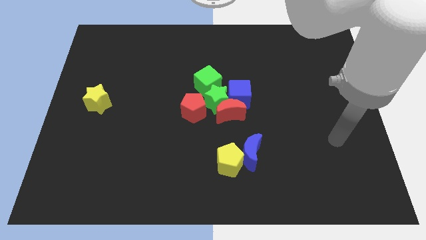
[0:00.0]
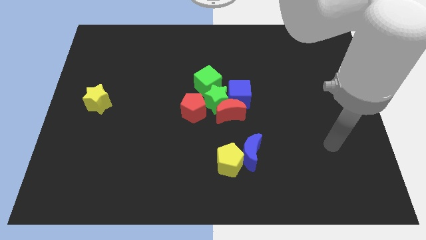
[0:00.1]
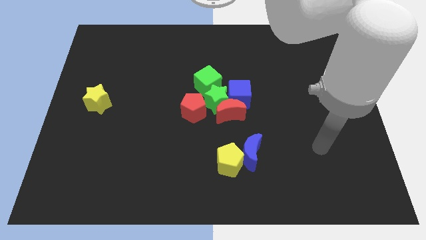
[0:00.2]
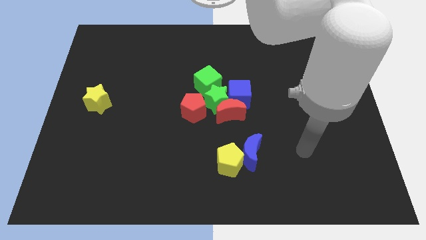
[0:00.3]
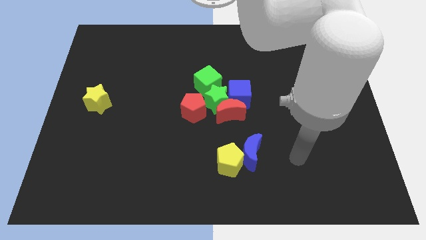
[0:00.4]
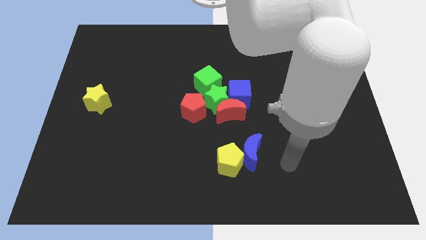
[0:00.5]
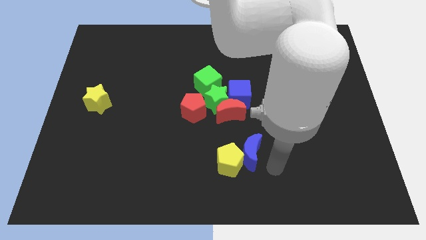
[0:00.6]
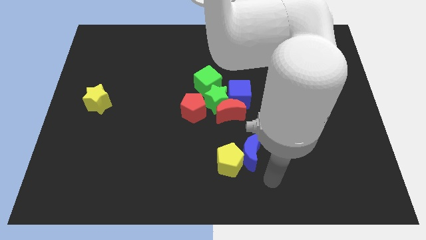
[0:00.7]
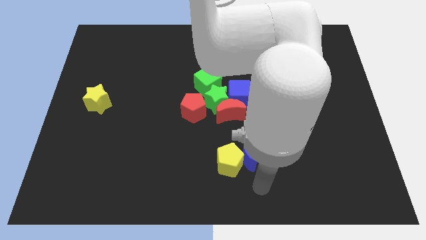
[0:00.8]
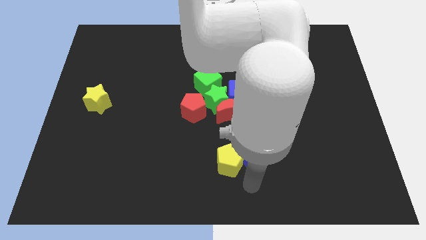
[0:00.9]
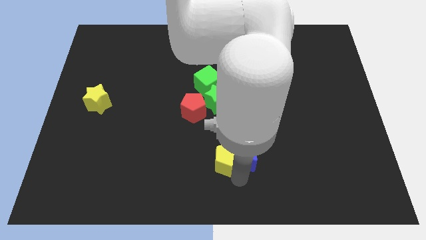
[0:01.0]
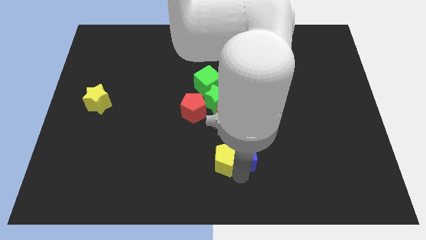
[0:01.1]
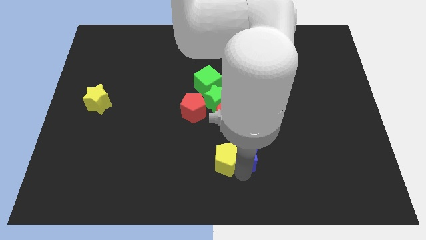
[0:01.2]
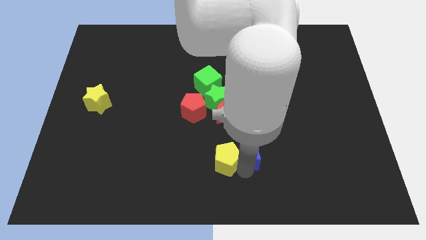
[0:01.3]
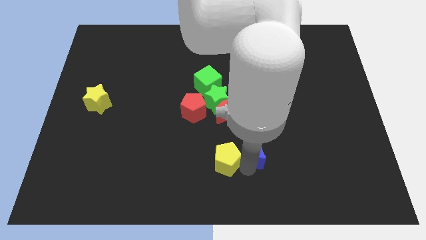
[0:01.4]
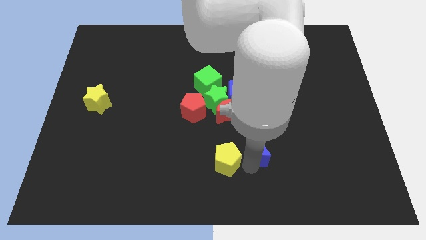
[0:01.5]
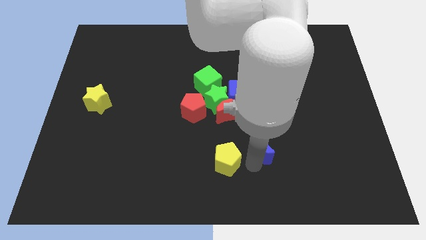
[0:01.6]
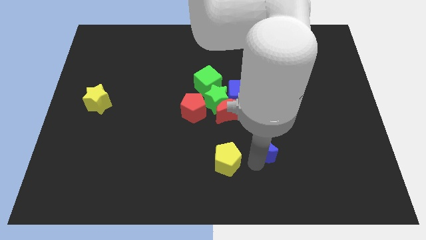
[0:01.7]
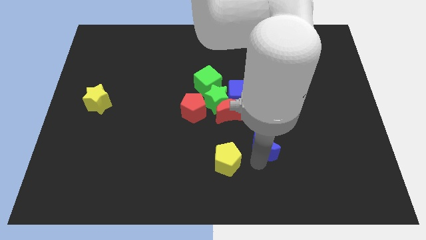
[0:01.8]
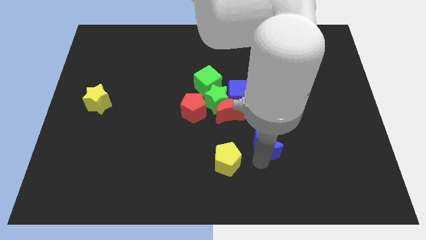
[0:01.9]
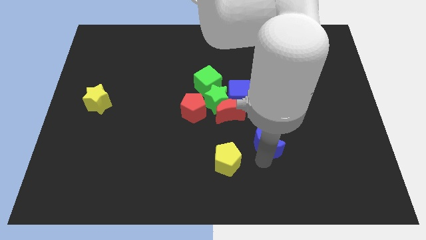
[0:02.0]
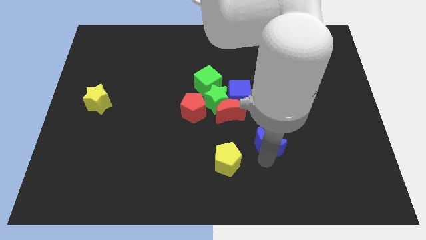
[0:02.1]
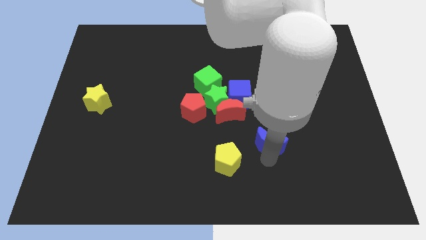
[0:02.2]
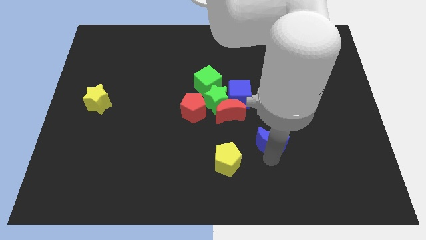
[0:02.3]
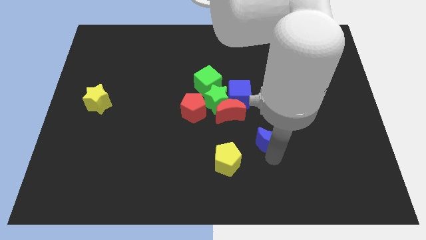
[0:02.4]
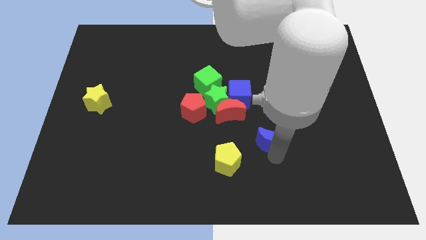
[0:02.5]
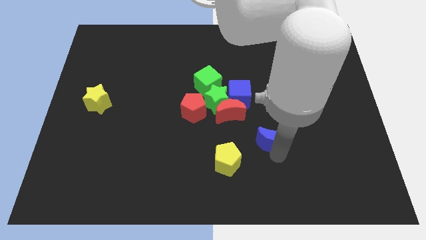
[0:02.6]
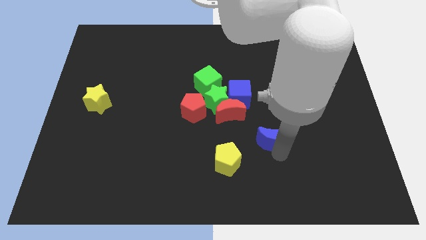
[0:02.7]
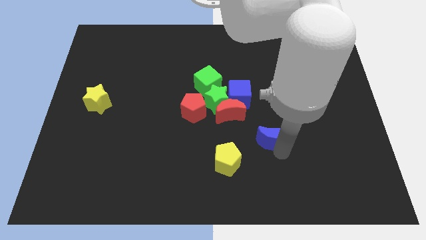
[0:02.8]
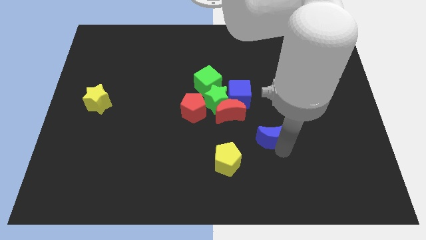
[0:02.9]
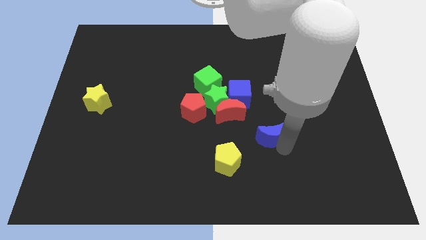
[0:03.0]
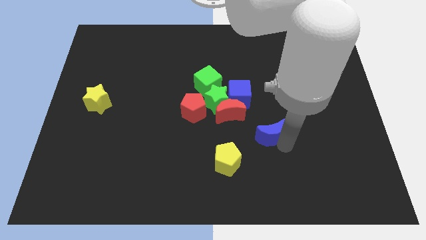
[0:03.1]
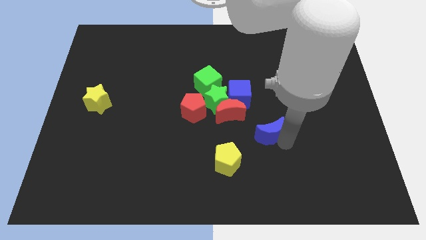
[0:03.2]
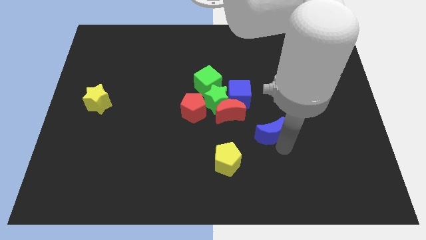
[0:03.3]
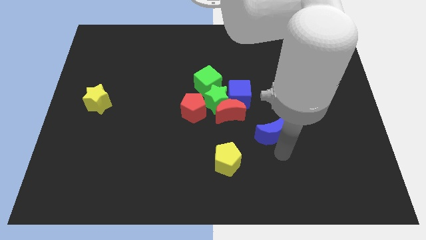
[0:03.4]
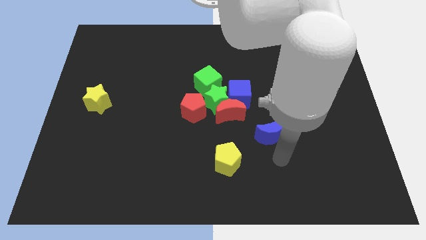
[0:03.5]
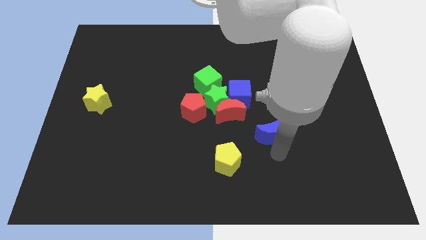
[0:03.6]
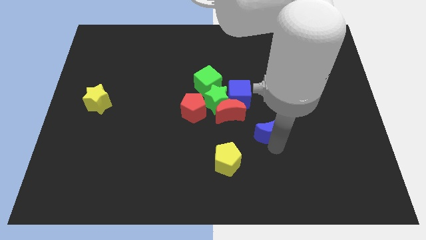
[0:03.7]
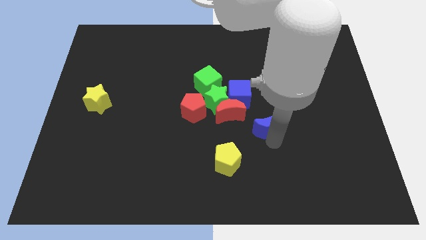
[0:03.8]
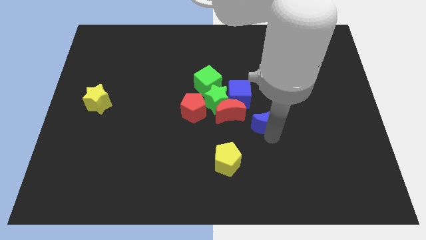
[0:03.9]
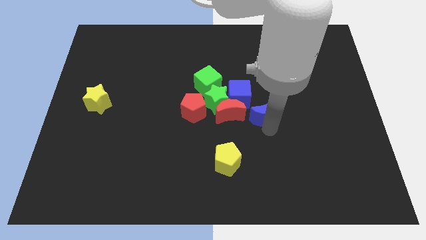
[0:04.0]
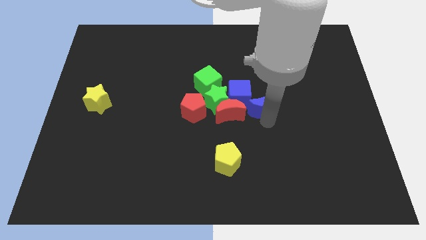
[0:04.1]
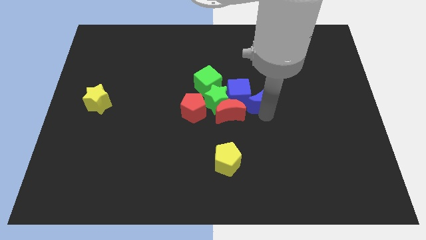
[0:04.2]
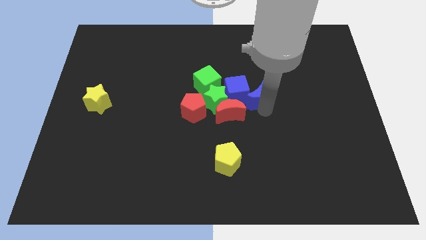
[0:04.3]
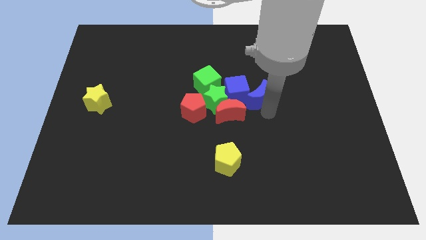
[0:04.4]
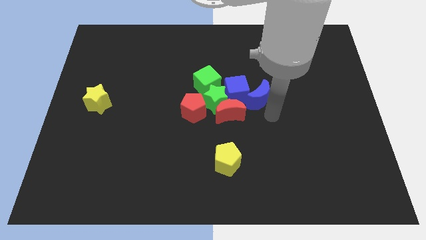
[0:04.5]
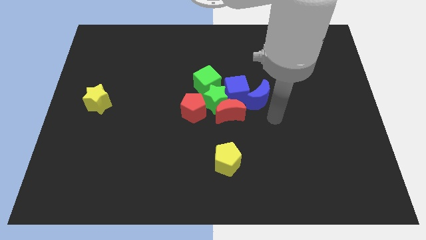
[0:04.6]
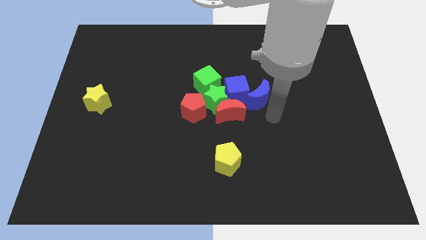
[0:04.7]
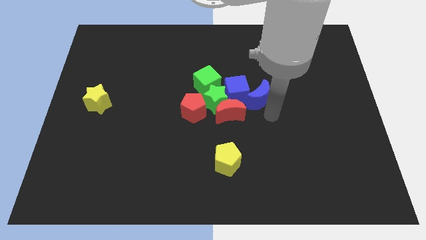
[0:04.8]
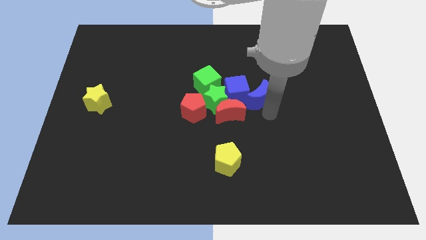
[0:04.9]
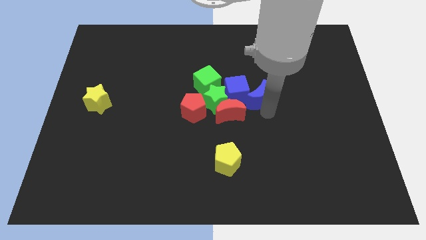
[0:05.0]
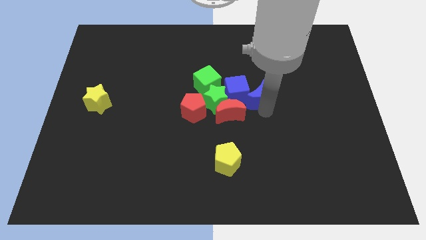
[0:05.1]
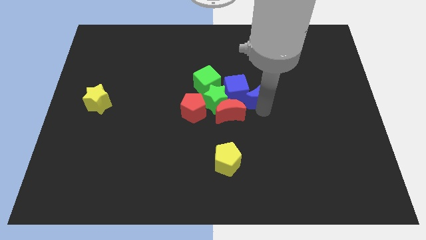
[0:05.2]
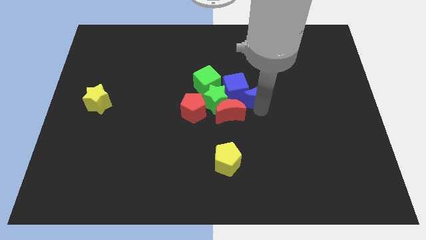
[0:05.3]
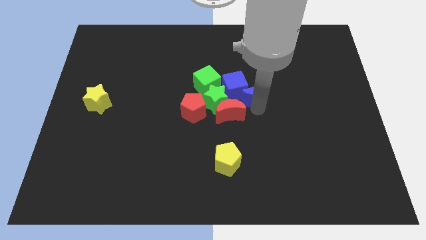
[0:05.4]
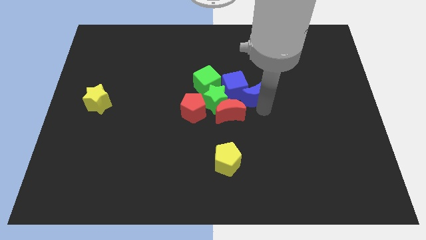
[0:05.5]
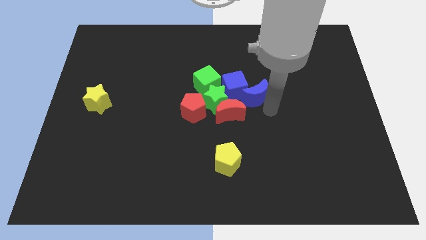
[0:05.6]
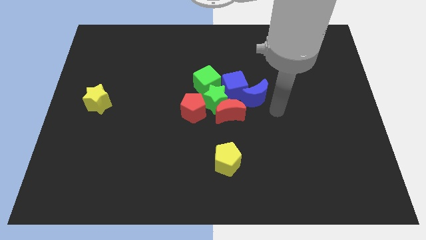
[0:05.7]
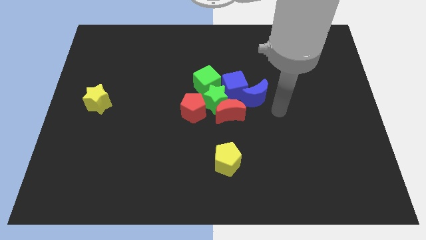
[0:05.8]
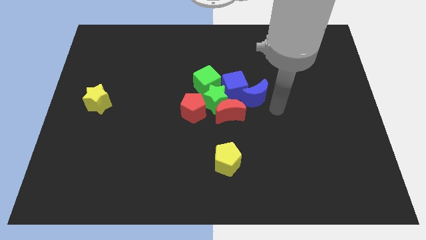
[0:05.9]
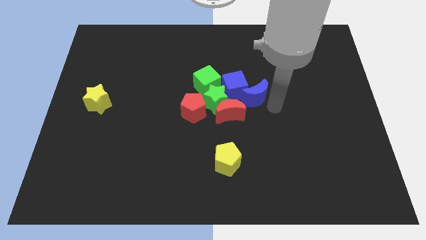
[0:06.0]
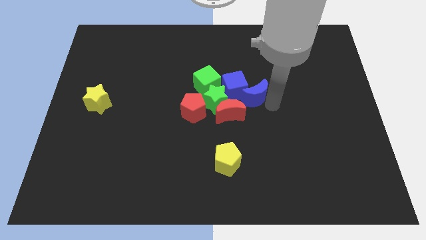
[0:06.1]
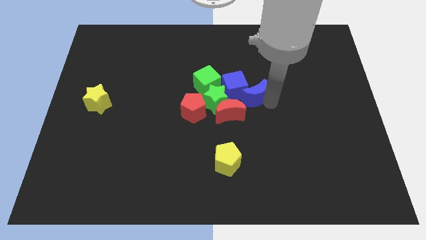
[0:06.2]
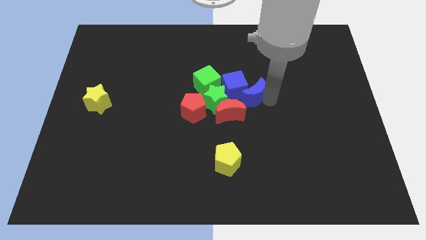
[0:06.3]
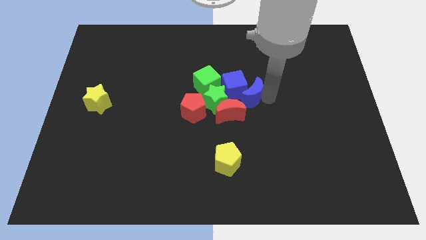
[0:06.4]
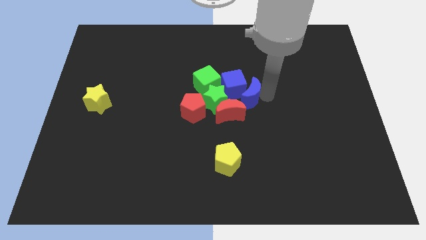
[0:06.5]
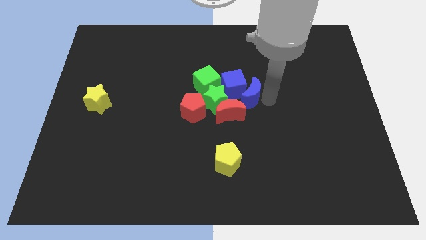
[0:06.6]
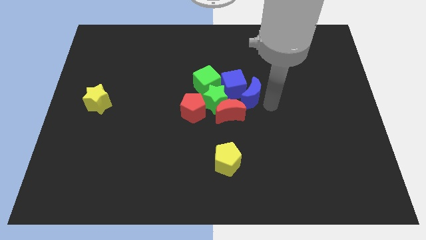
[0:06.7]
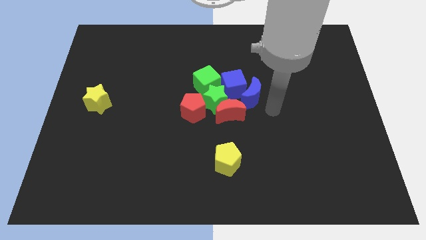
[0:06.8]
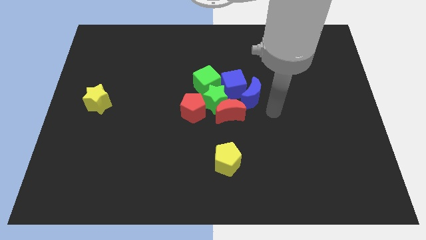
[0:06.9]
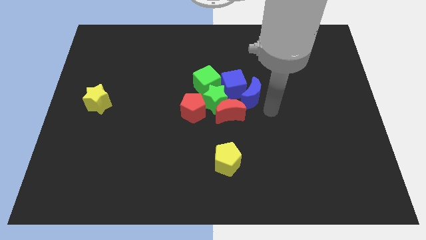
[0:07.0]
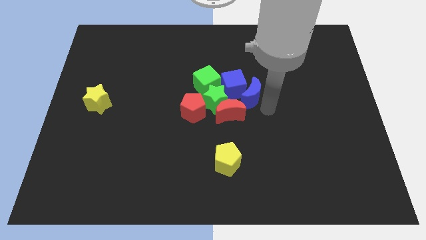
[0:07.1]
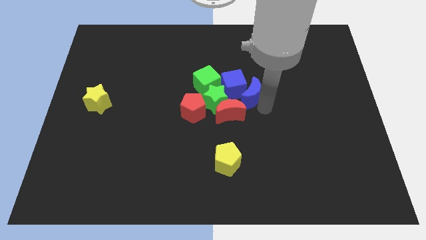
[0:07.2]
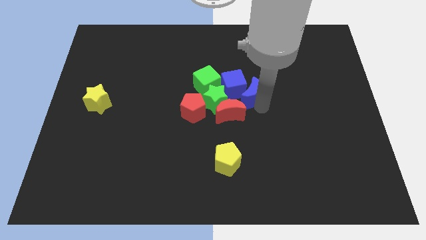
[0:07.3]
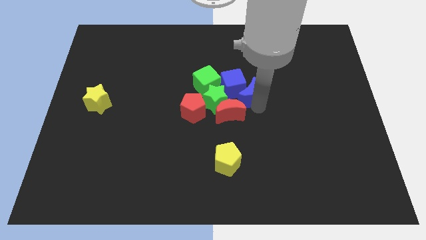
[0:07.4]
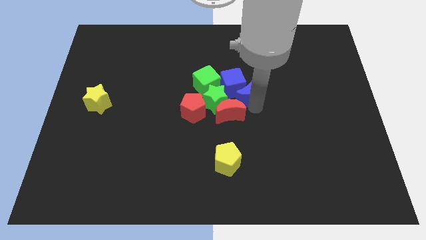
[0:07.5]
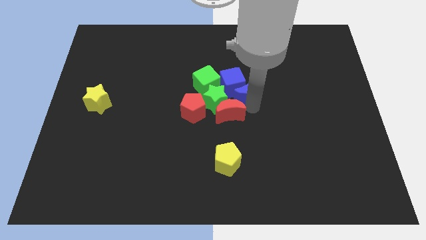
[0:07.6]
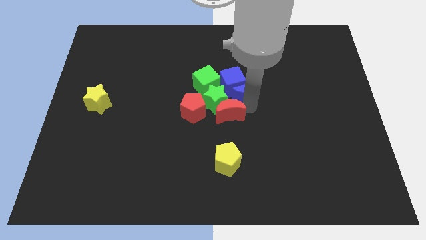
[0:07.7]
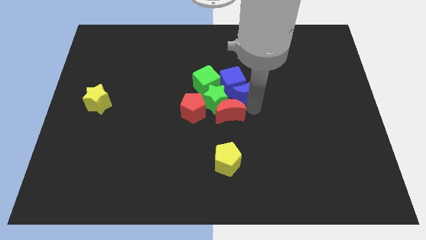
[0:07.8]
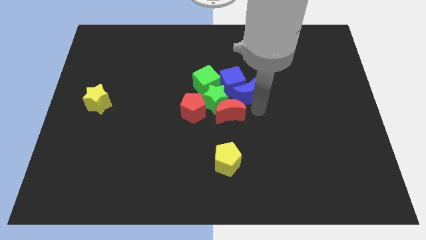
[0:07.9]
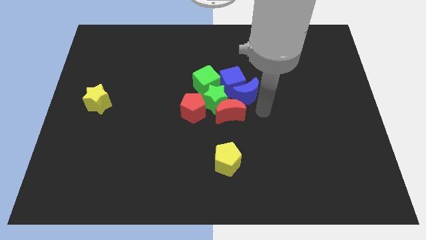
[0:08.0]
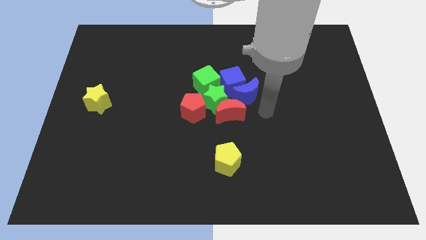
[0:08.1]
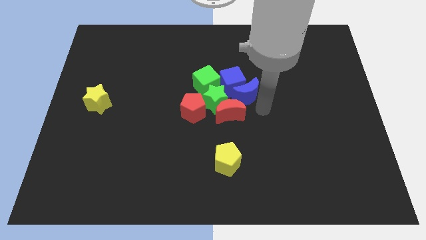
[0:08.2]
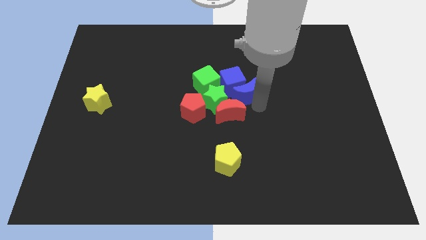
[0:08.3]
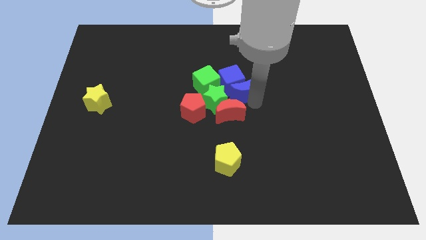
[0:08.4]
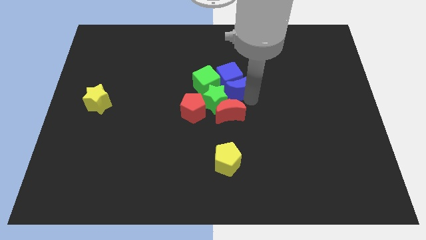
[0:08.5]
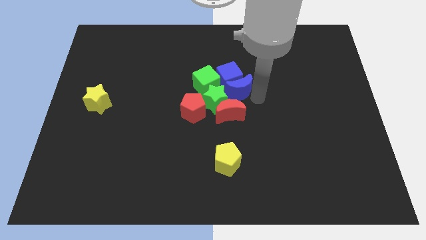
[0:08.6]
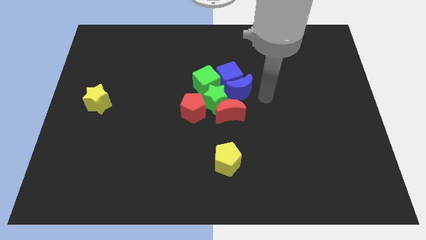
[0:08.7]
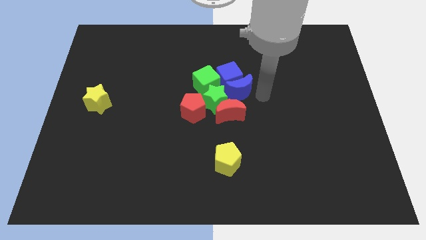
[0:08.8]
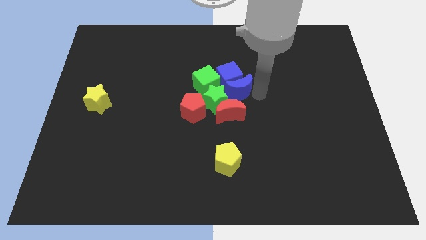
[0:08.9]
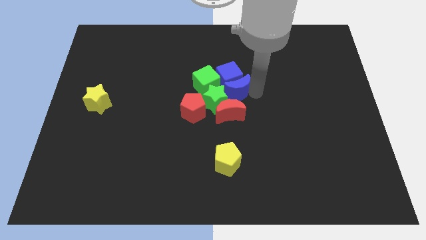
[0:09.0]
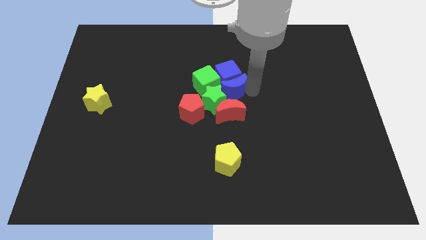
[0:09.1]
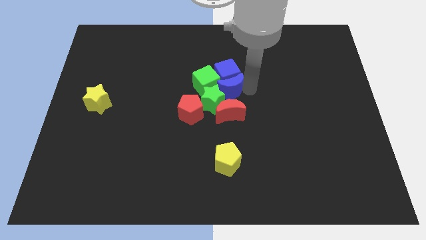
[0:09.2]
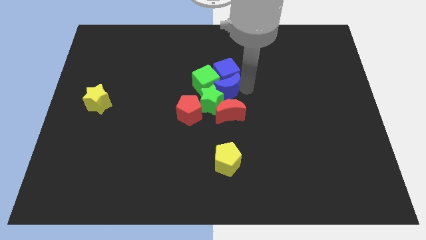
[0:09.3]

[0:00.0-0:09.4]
put the blue moon next to the green cube
